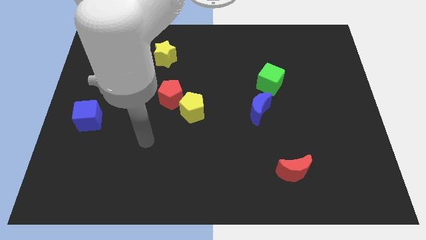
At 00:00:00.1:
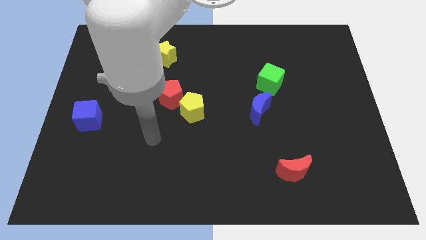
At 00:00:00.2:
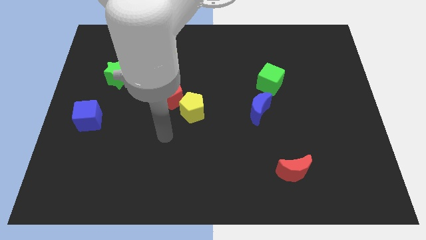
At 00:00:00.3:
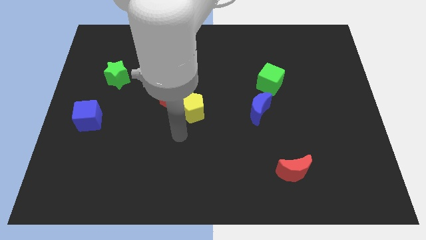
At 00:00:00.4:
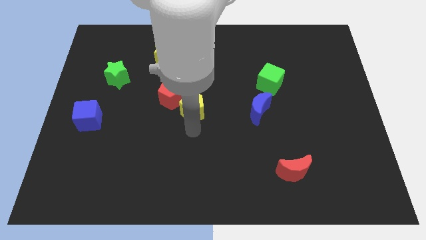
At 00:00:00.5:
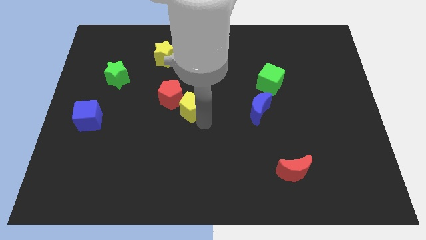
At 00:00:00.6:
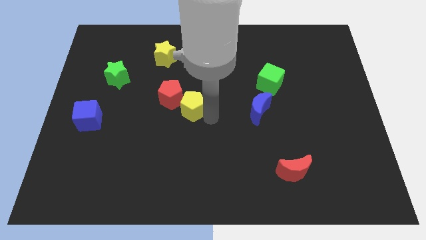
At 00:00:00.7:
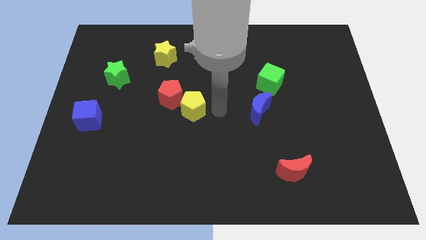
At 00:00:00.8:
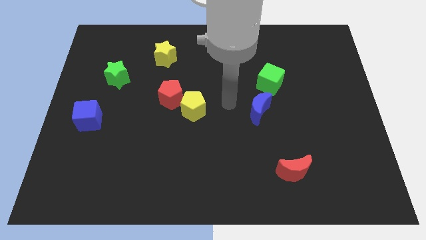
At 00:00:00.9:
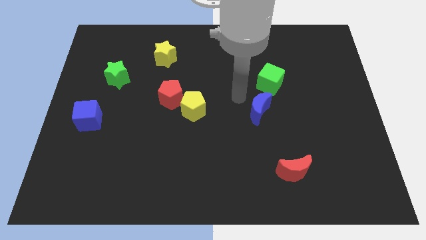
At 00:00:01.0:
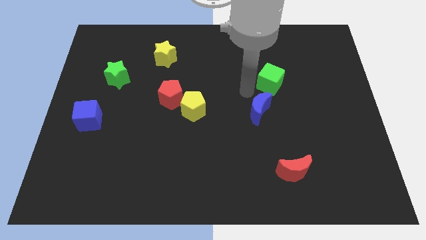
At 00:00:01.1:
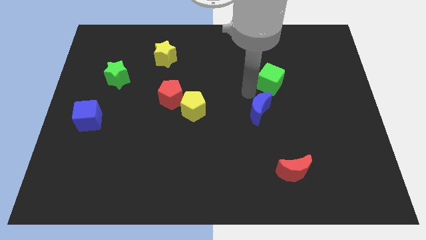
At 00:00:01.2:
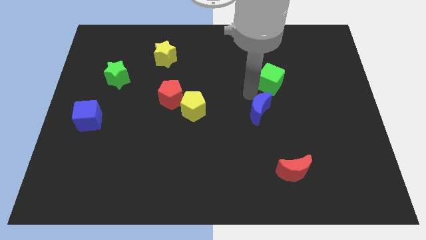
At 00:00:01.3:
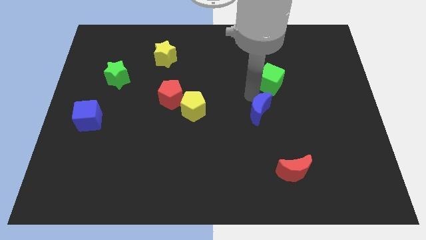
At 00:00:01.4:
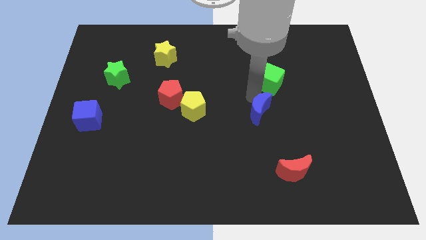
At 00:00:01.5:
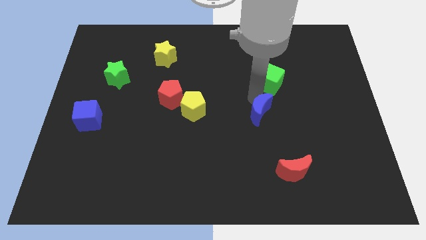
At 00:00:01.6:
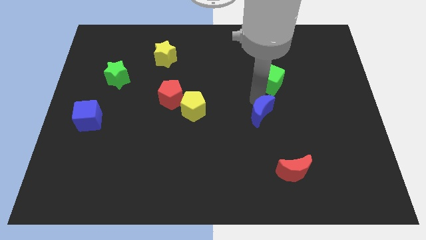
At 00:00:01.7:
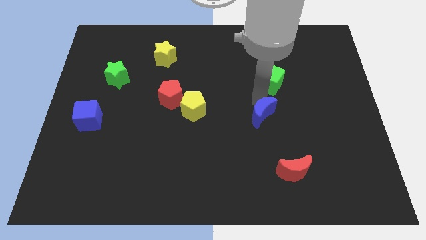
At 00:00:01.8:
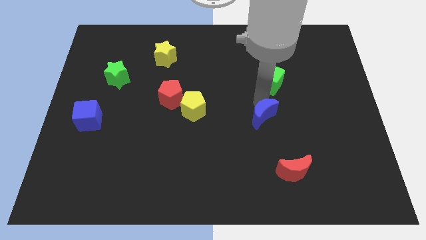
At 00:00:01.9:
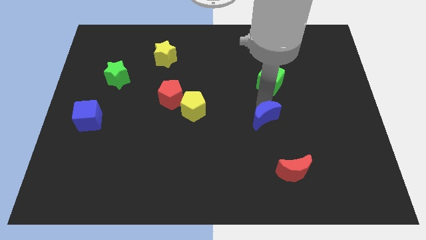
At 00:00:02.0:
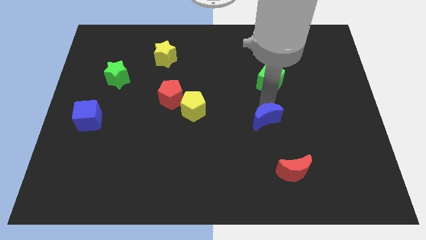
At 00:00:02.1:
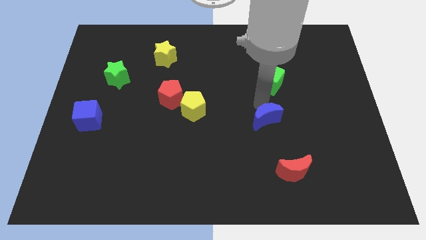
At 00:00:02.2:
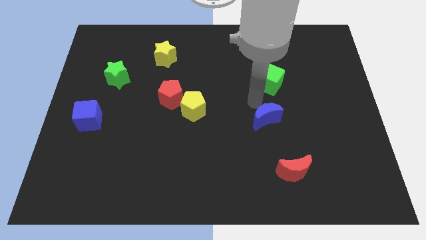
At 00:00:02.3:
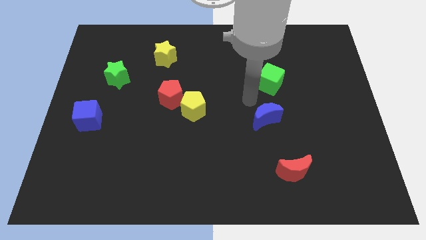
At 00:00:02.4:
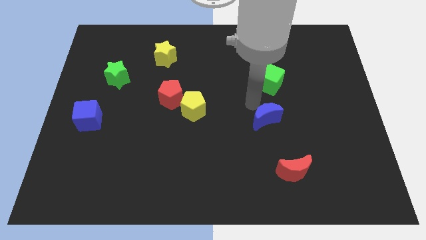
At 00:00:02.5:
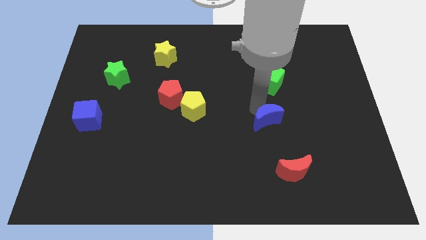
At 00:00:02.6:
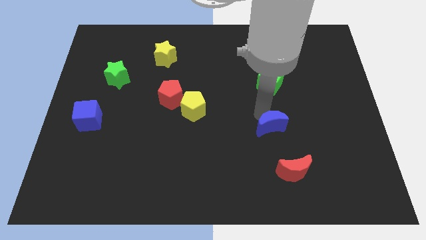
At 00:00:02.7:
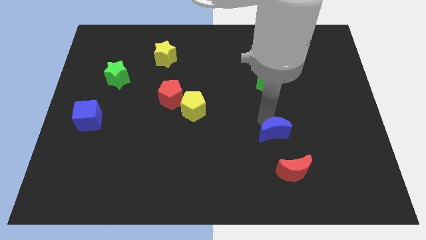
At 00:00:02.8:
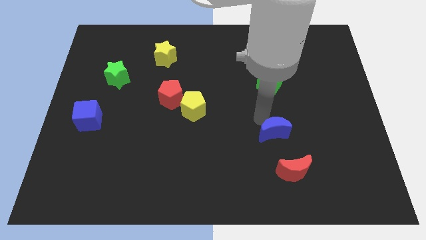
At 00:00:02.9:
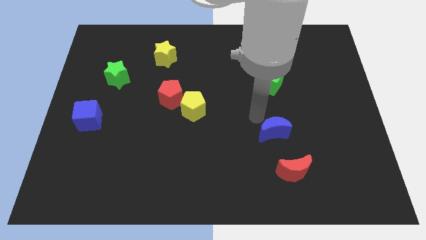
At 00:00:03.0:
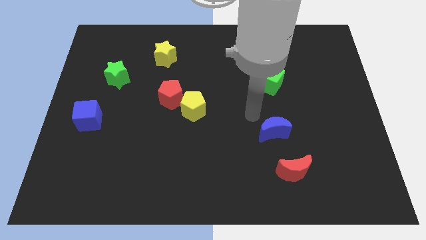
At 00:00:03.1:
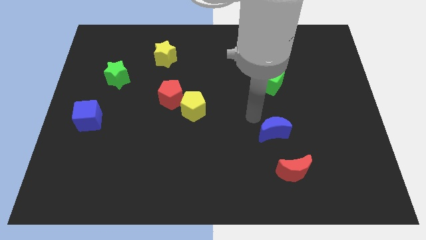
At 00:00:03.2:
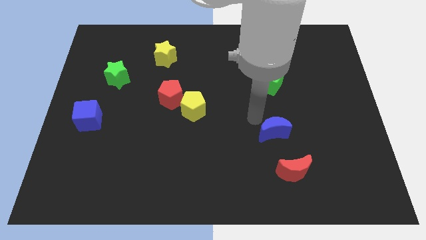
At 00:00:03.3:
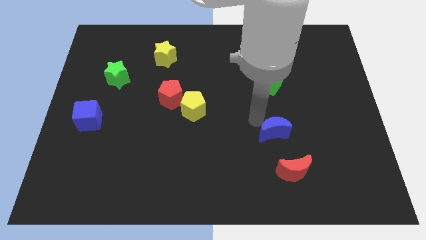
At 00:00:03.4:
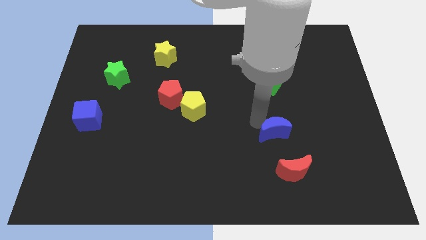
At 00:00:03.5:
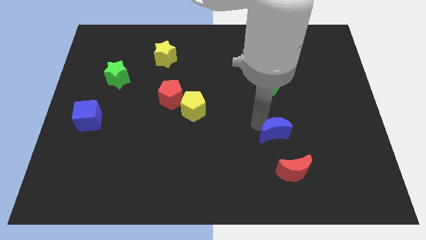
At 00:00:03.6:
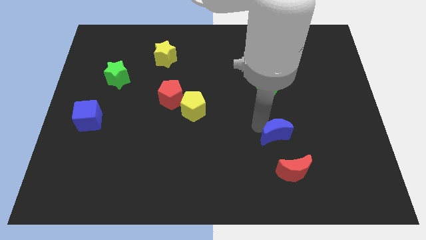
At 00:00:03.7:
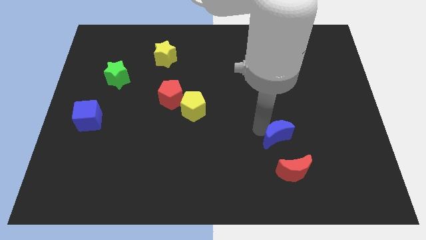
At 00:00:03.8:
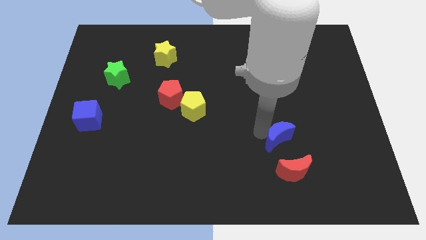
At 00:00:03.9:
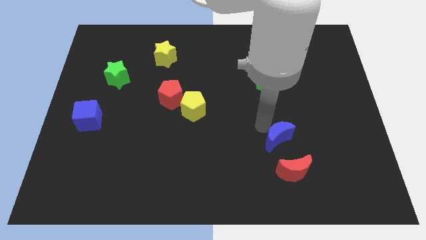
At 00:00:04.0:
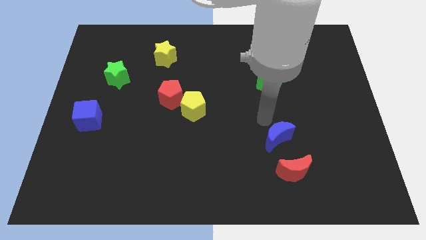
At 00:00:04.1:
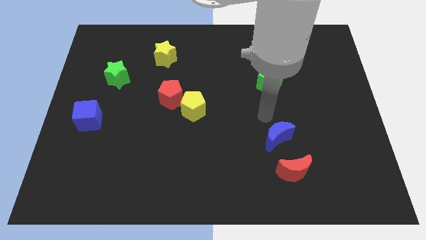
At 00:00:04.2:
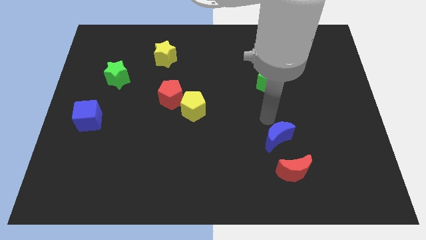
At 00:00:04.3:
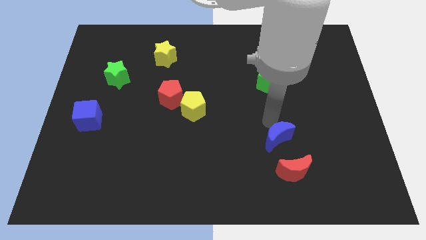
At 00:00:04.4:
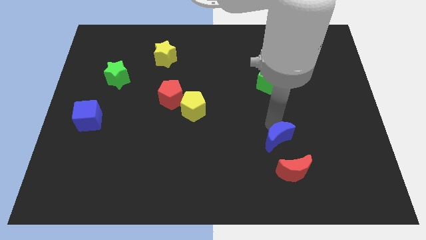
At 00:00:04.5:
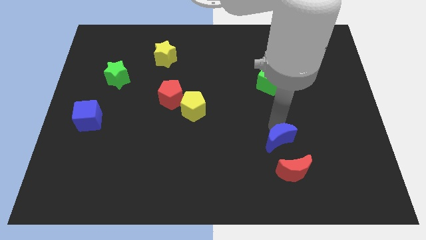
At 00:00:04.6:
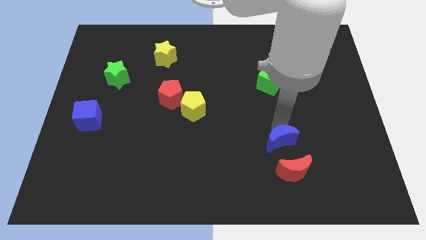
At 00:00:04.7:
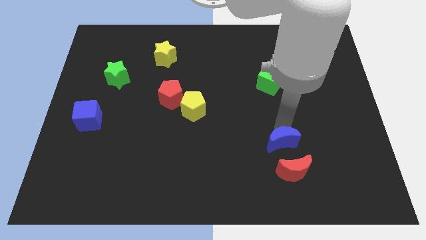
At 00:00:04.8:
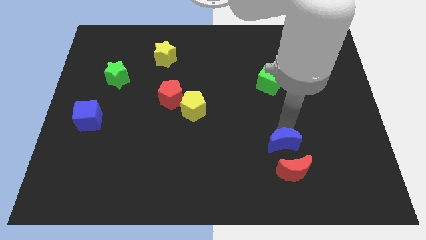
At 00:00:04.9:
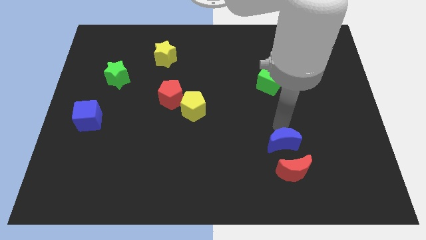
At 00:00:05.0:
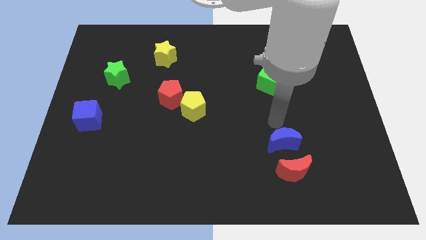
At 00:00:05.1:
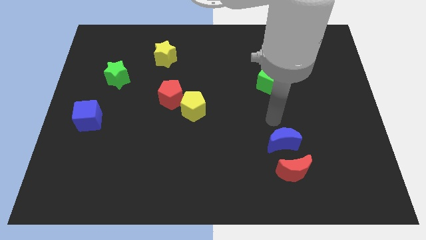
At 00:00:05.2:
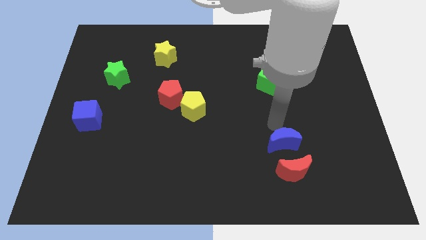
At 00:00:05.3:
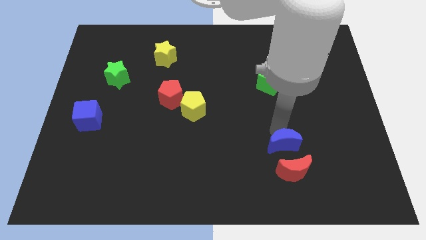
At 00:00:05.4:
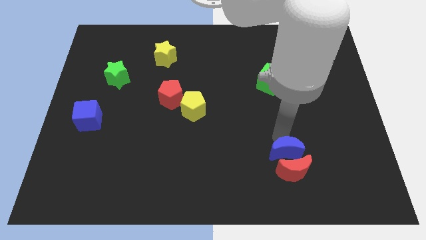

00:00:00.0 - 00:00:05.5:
slide the blue moon towards the red moon
